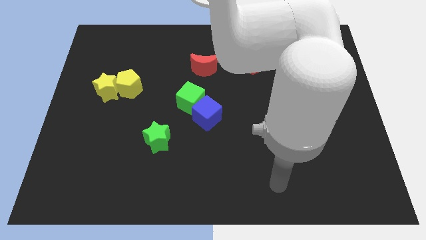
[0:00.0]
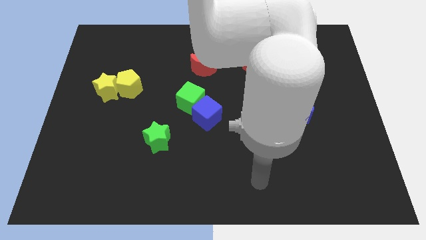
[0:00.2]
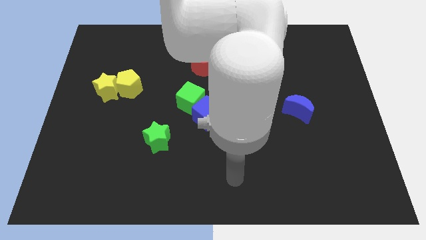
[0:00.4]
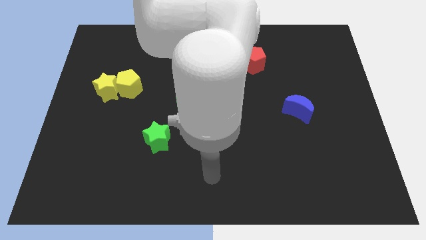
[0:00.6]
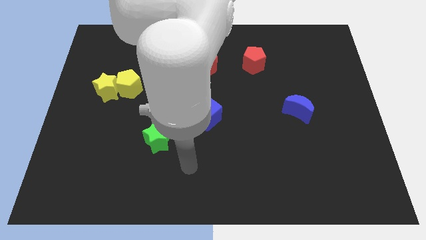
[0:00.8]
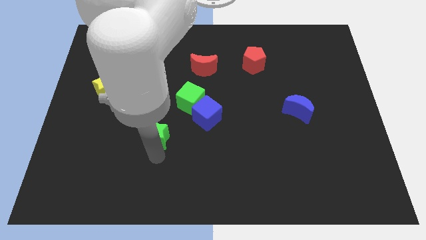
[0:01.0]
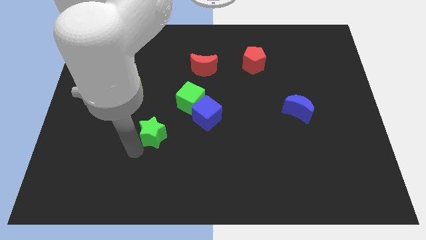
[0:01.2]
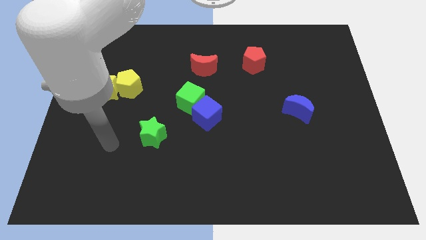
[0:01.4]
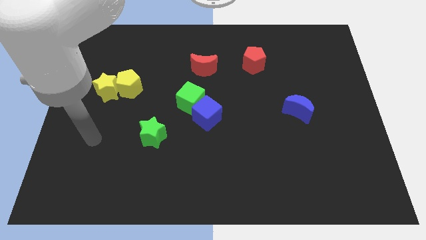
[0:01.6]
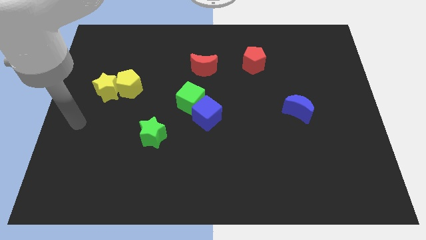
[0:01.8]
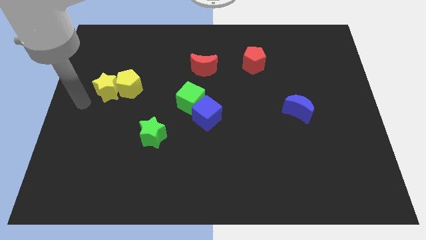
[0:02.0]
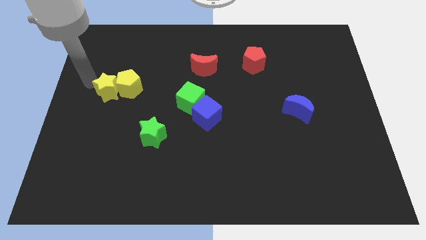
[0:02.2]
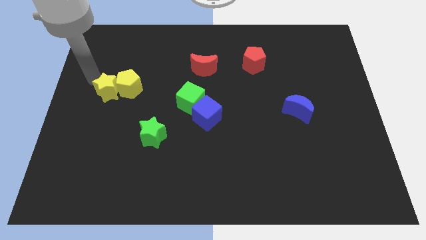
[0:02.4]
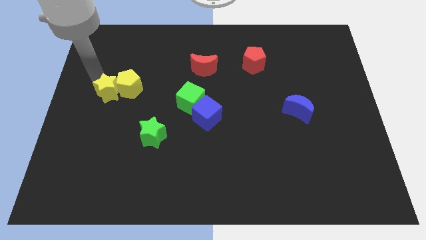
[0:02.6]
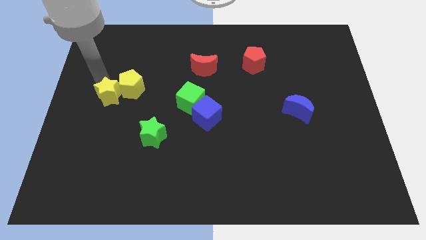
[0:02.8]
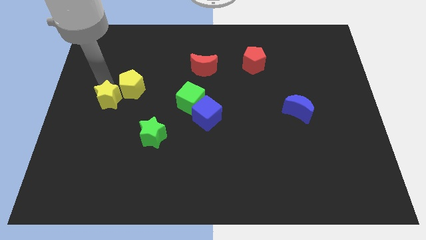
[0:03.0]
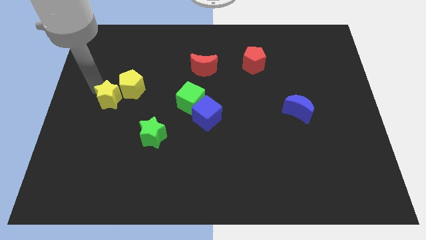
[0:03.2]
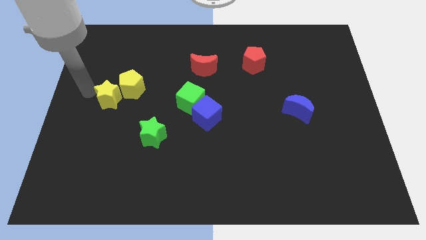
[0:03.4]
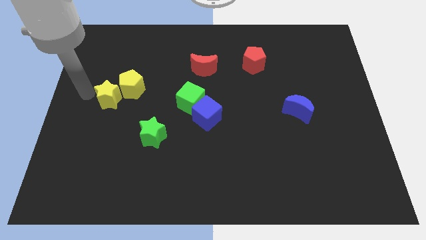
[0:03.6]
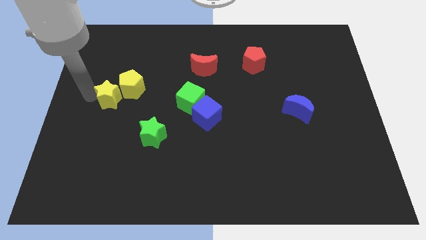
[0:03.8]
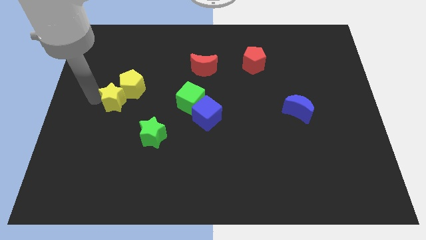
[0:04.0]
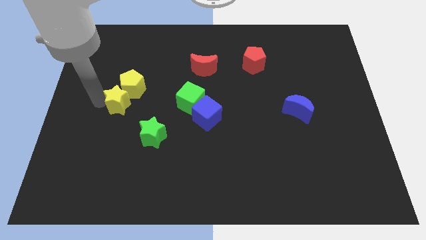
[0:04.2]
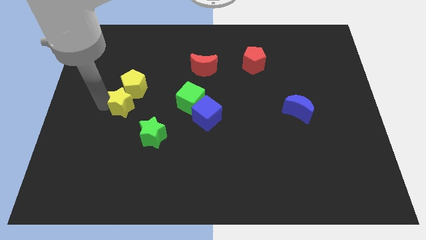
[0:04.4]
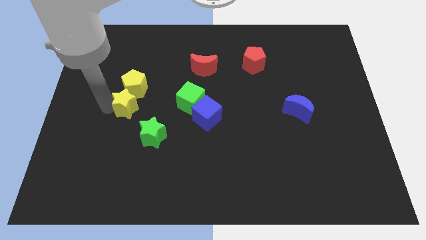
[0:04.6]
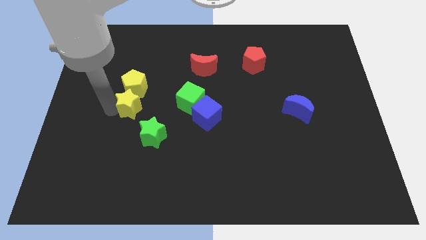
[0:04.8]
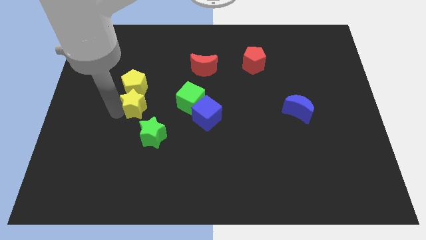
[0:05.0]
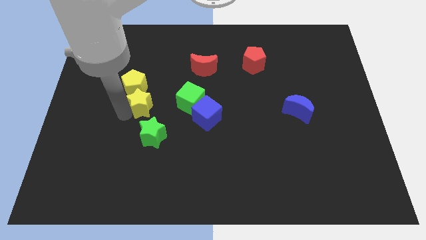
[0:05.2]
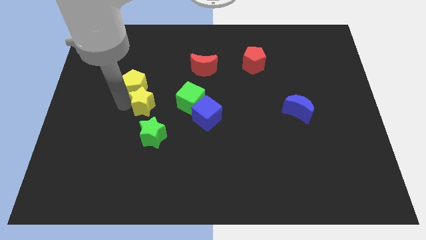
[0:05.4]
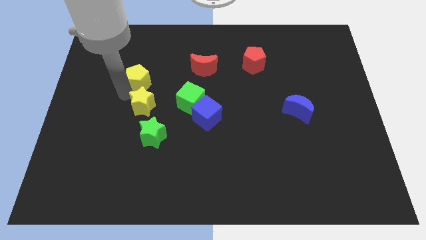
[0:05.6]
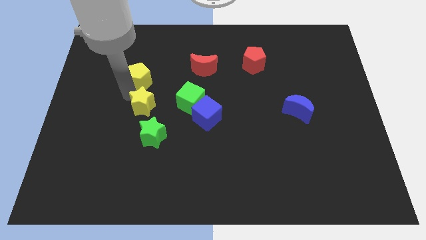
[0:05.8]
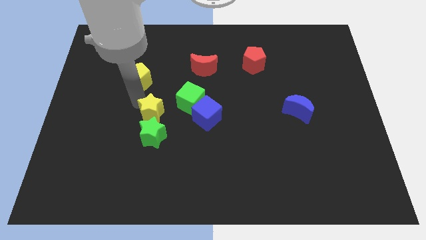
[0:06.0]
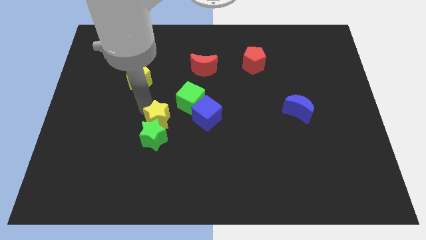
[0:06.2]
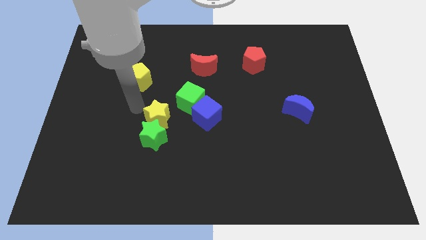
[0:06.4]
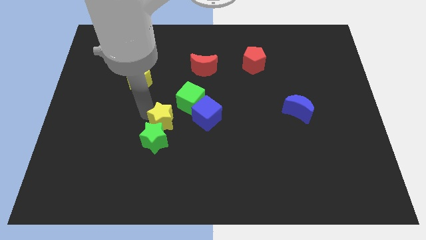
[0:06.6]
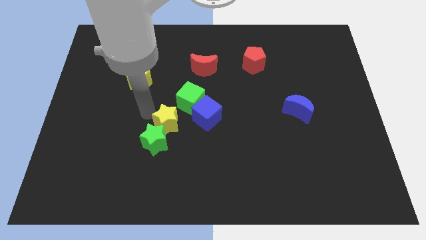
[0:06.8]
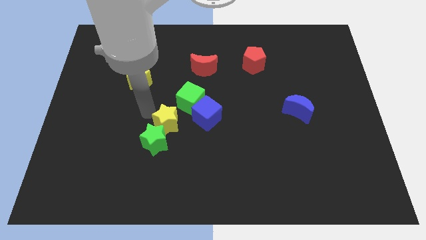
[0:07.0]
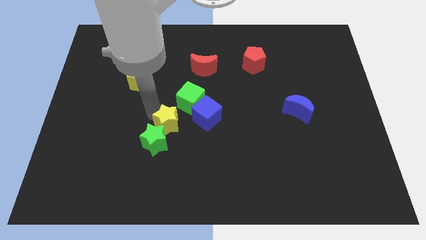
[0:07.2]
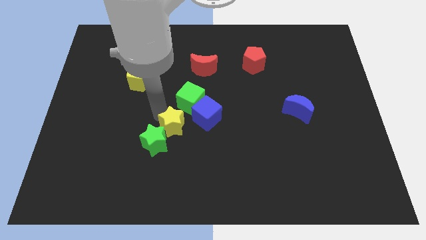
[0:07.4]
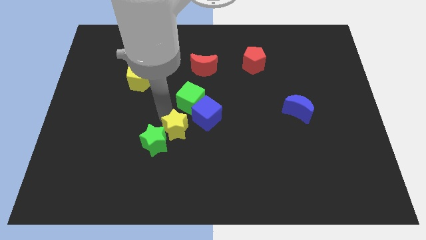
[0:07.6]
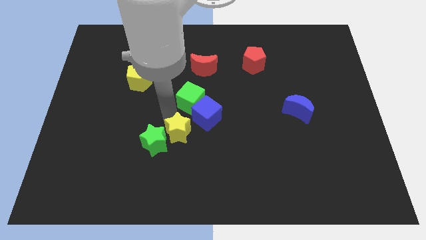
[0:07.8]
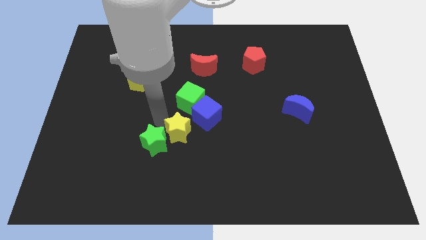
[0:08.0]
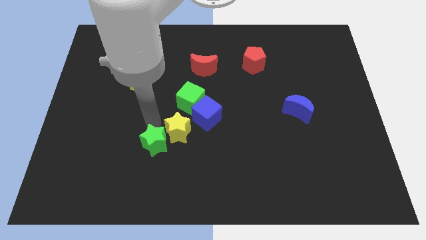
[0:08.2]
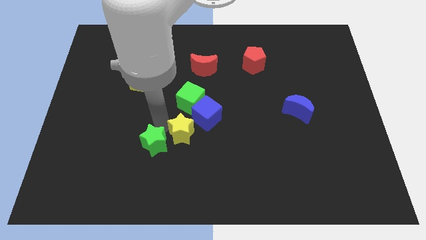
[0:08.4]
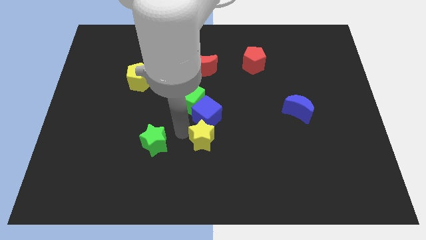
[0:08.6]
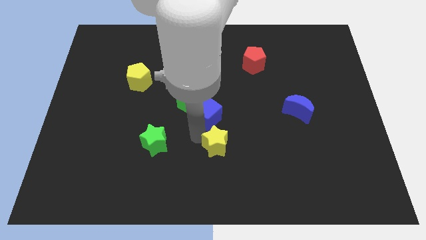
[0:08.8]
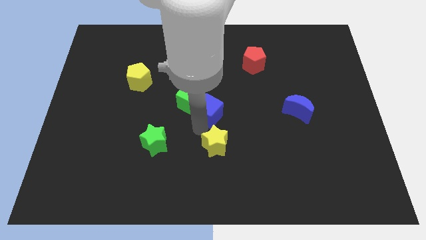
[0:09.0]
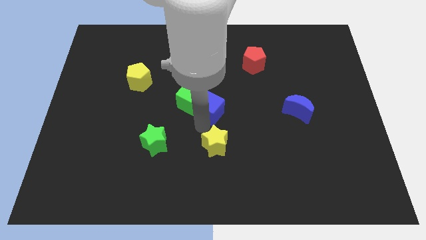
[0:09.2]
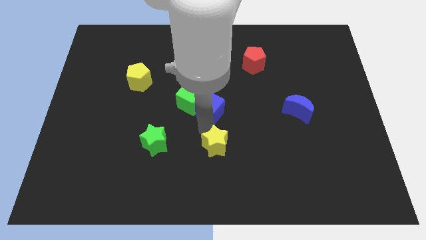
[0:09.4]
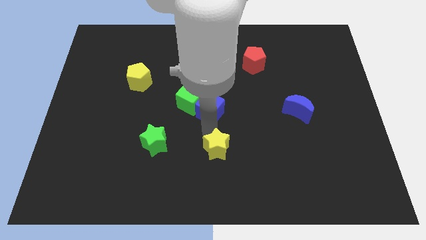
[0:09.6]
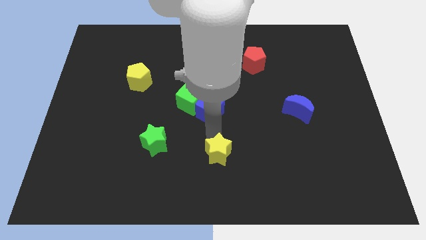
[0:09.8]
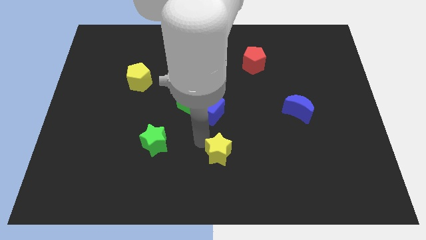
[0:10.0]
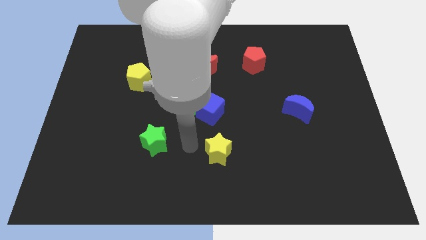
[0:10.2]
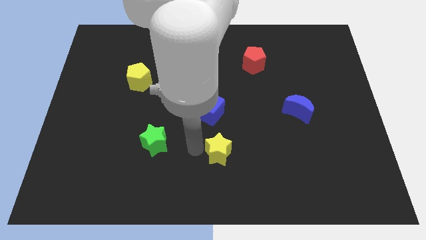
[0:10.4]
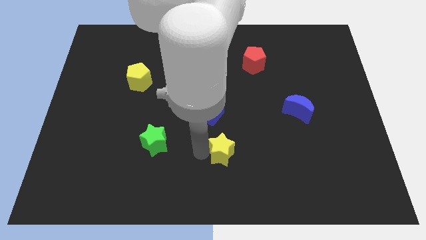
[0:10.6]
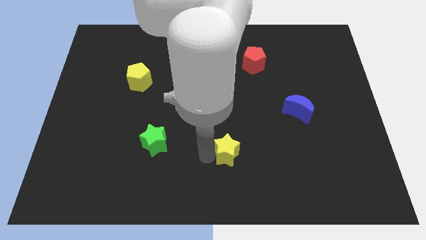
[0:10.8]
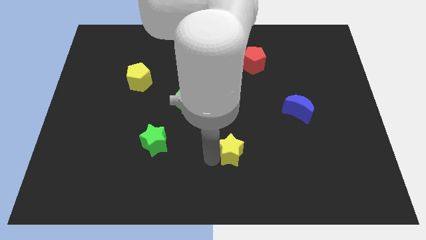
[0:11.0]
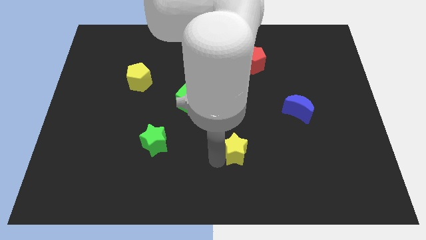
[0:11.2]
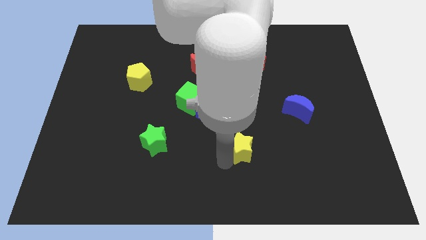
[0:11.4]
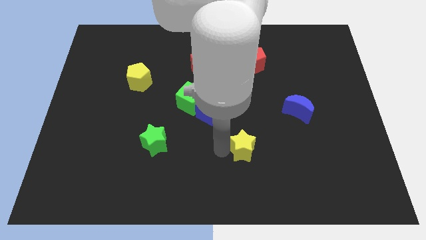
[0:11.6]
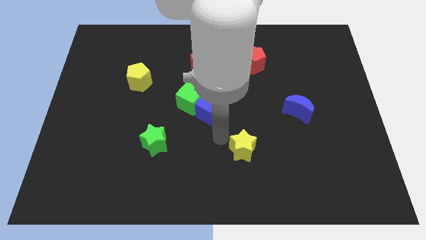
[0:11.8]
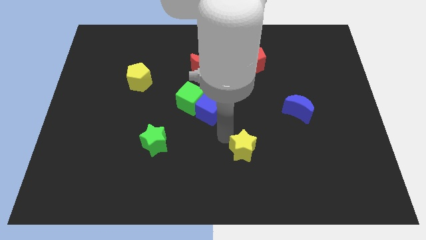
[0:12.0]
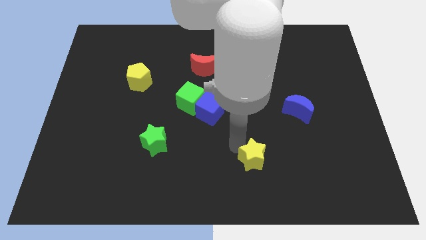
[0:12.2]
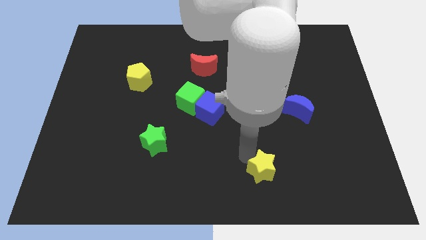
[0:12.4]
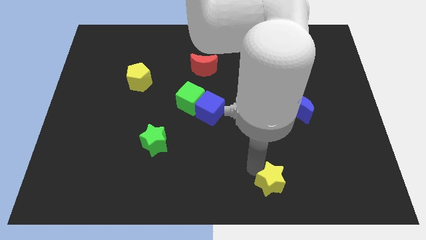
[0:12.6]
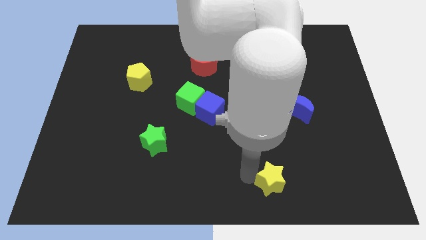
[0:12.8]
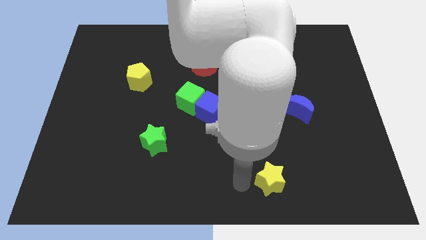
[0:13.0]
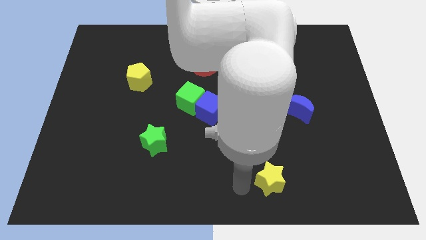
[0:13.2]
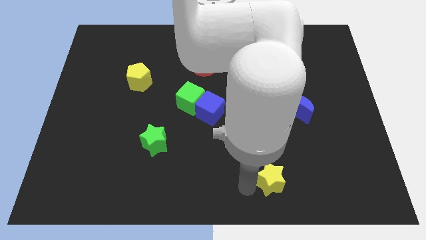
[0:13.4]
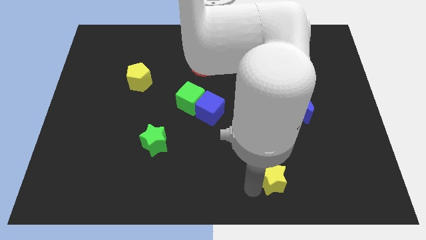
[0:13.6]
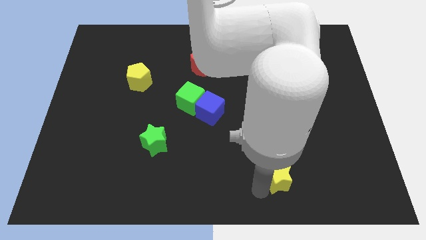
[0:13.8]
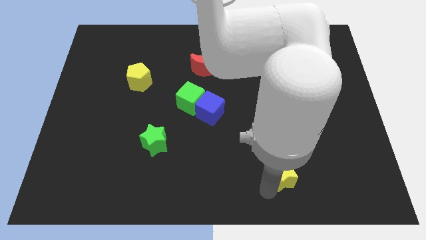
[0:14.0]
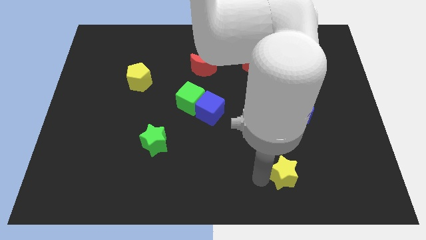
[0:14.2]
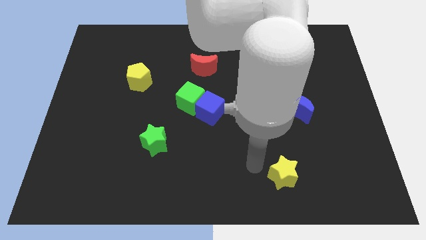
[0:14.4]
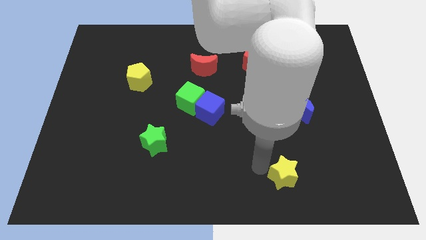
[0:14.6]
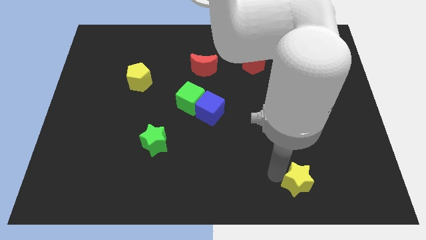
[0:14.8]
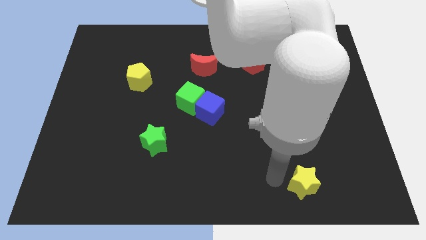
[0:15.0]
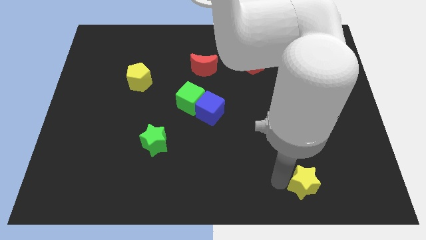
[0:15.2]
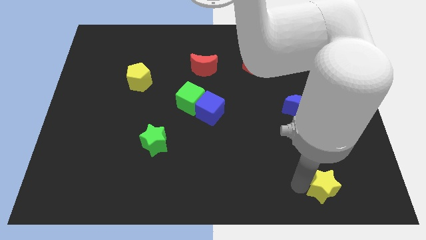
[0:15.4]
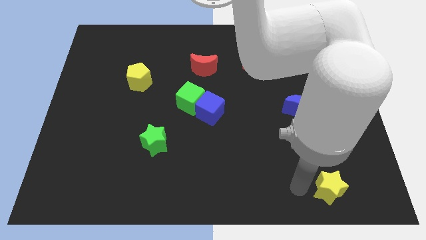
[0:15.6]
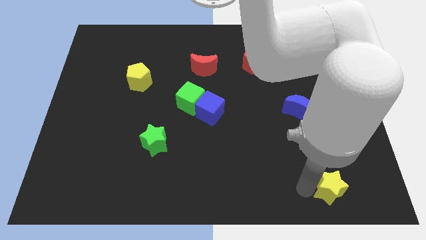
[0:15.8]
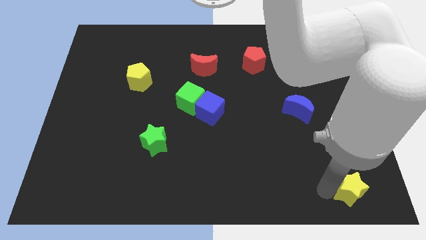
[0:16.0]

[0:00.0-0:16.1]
move the yellow star to the bottom right corner
